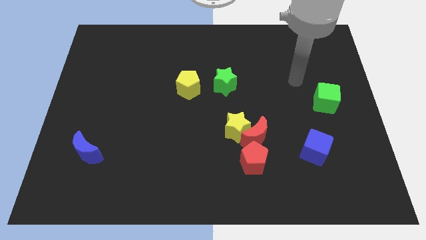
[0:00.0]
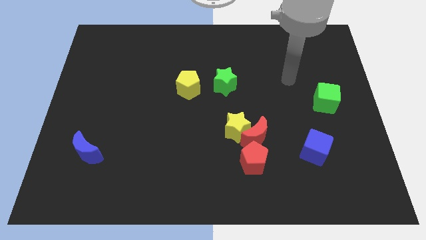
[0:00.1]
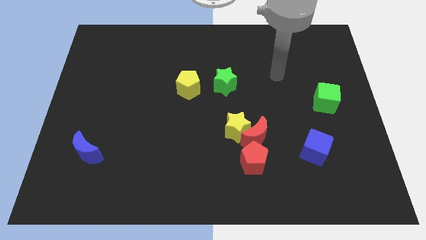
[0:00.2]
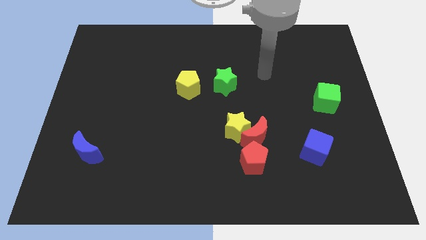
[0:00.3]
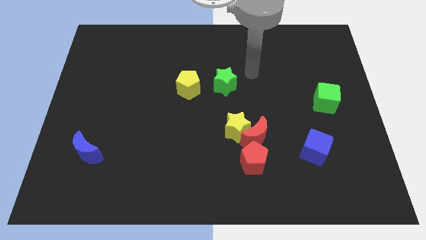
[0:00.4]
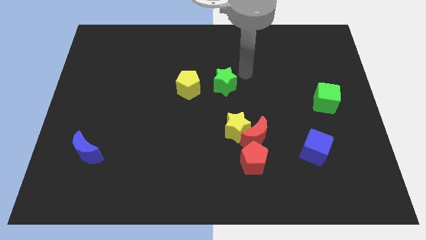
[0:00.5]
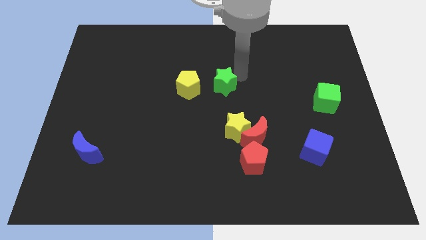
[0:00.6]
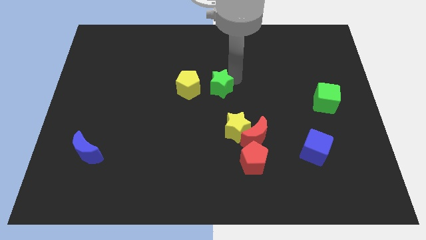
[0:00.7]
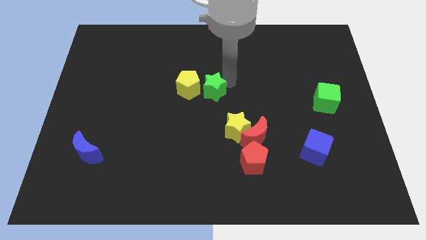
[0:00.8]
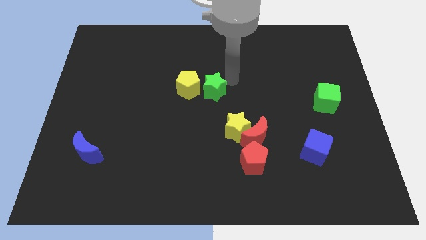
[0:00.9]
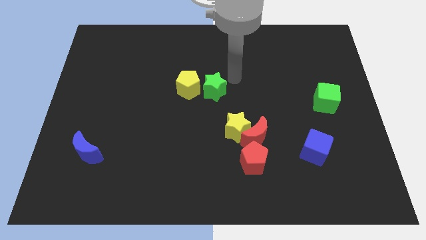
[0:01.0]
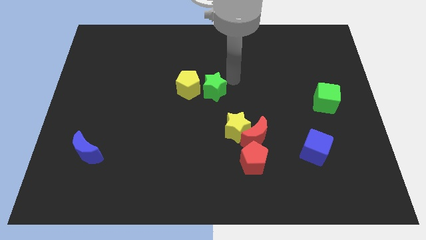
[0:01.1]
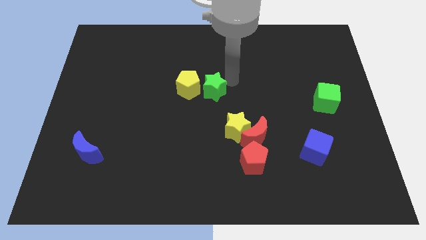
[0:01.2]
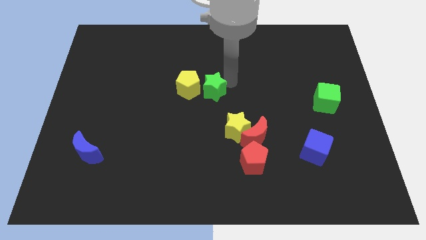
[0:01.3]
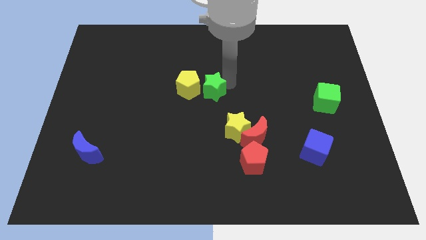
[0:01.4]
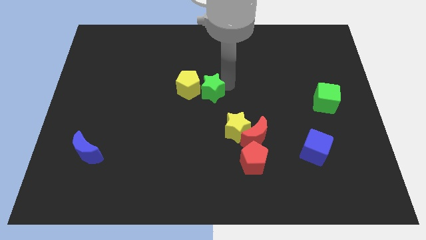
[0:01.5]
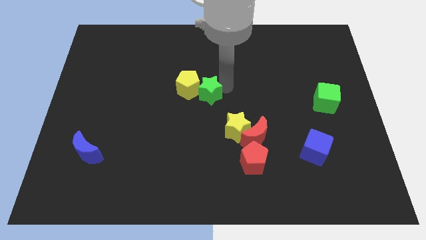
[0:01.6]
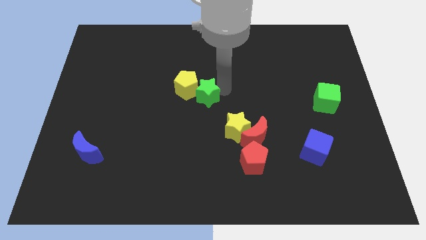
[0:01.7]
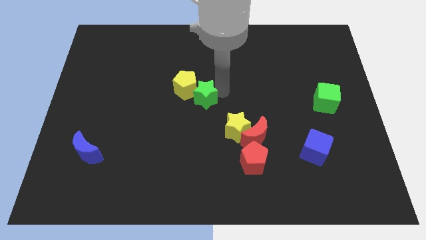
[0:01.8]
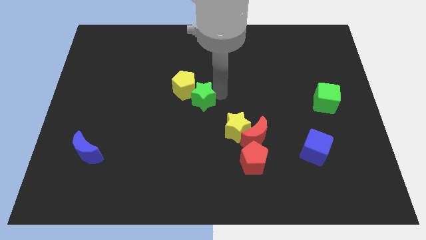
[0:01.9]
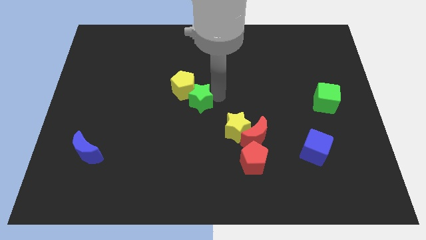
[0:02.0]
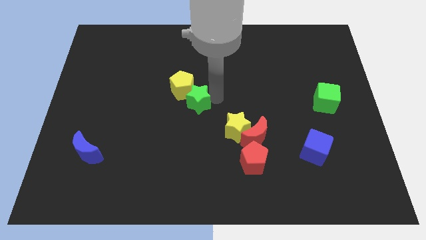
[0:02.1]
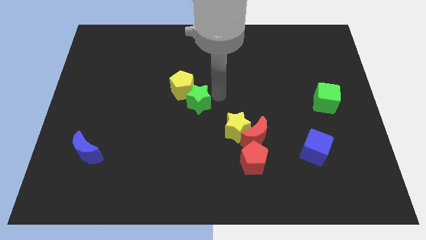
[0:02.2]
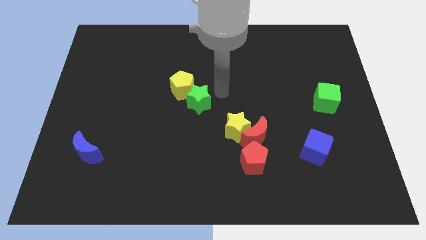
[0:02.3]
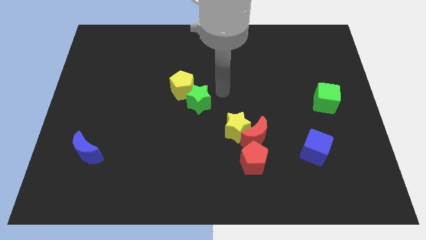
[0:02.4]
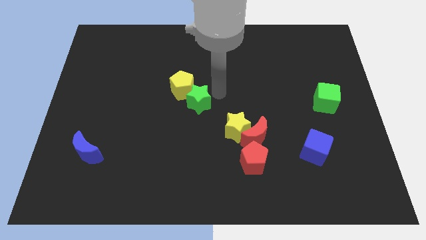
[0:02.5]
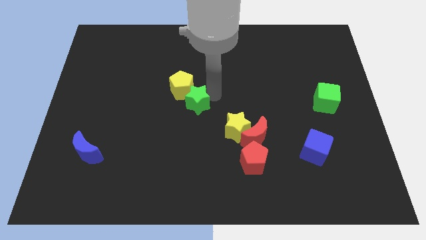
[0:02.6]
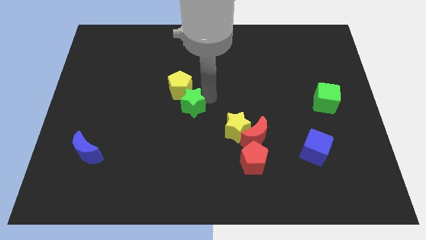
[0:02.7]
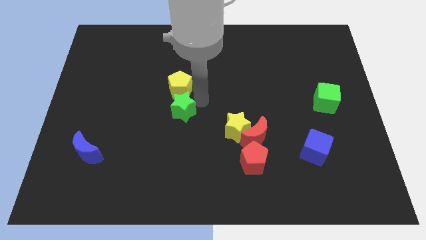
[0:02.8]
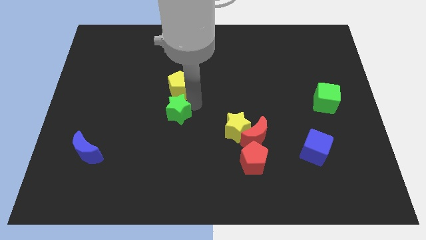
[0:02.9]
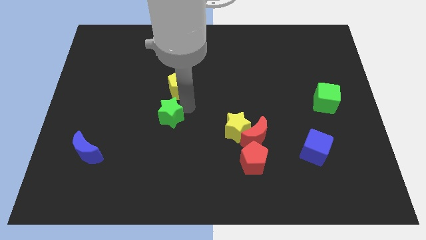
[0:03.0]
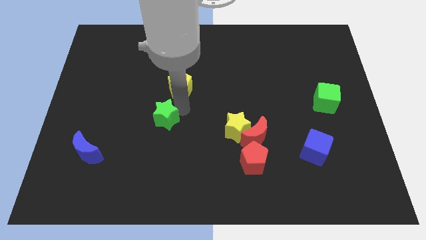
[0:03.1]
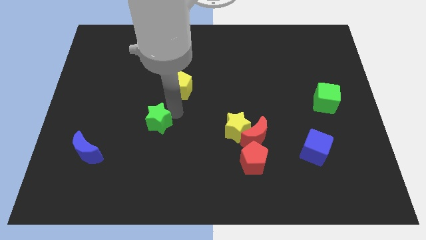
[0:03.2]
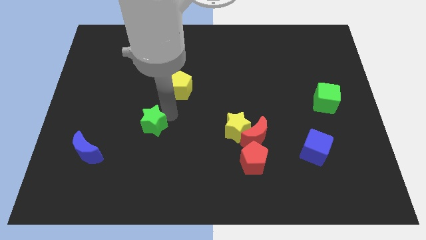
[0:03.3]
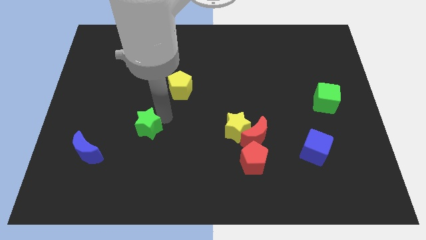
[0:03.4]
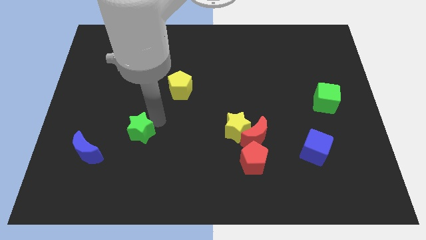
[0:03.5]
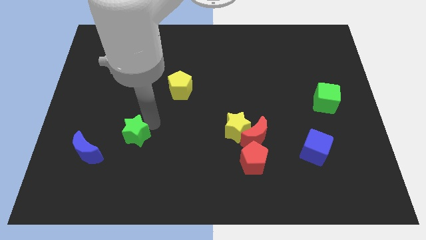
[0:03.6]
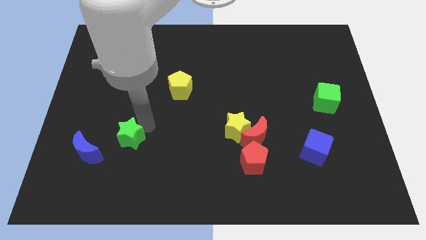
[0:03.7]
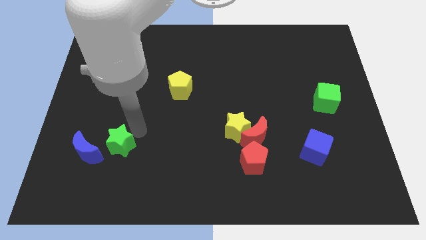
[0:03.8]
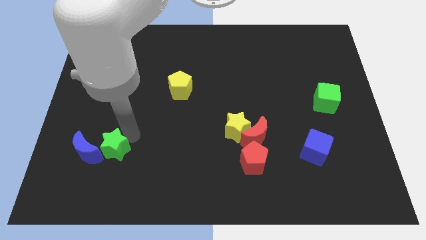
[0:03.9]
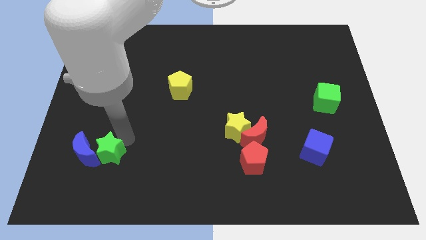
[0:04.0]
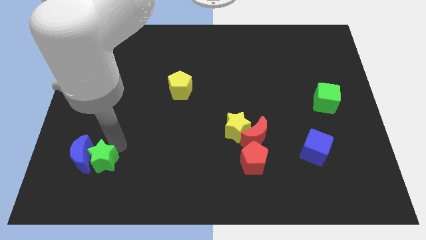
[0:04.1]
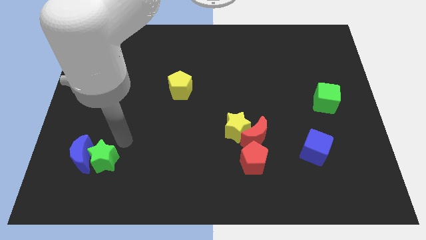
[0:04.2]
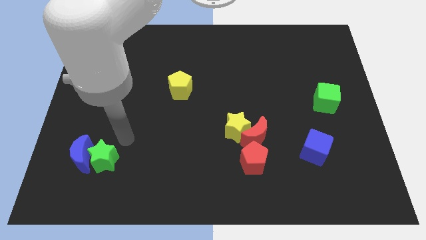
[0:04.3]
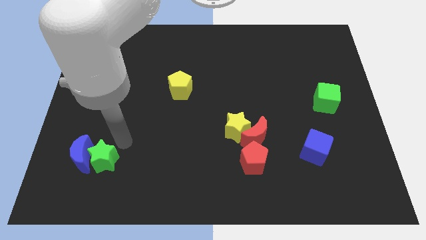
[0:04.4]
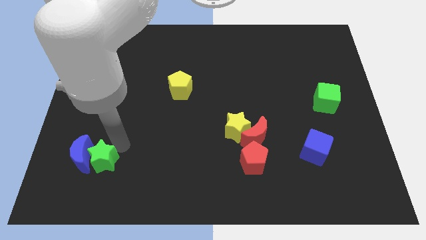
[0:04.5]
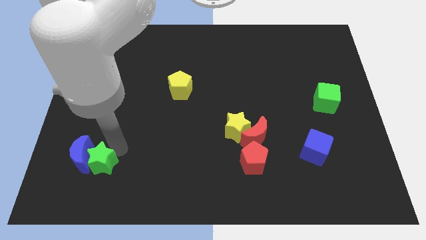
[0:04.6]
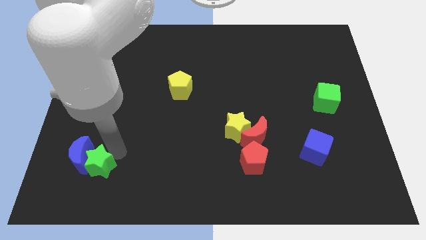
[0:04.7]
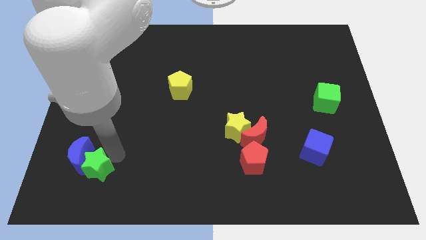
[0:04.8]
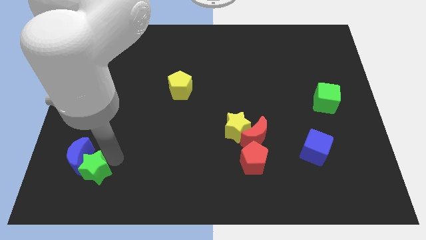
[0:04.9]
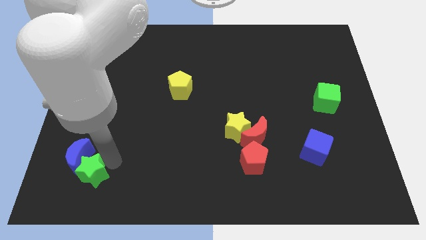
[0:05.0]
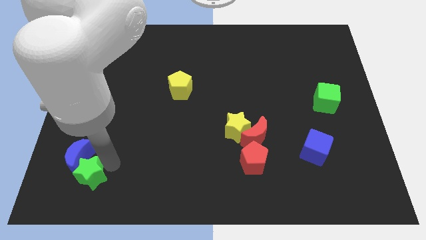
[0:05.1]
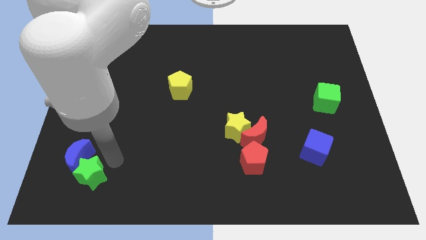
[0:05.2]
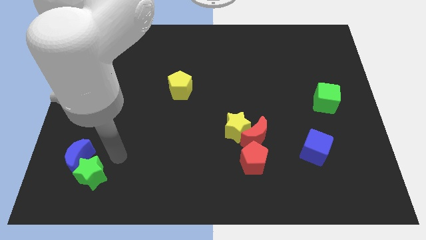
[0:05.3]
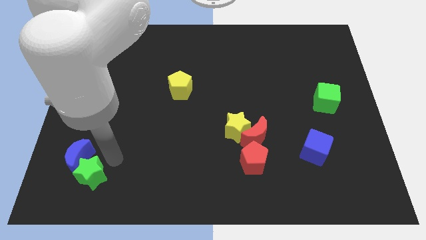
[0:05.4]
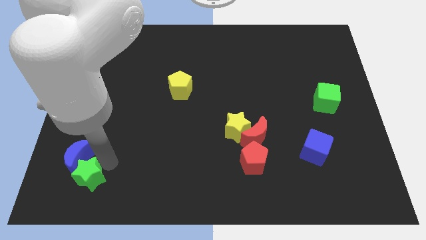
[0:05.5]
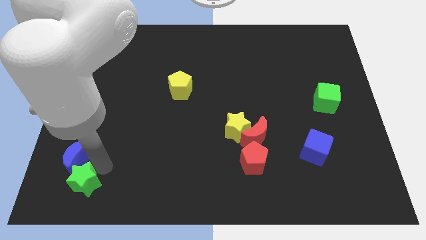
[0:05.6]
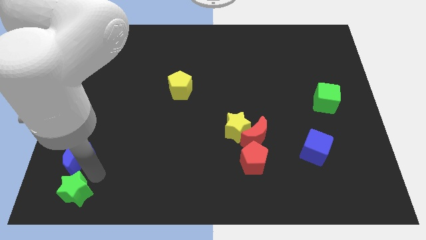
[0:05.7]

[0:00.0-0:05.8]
put the green star to the bottom left of the board

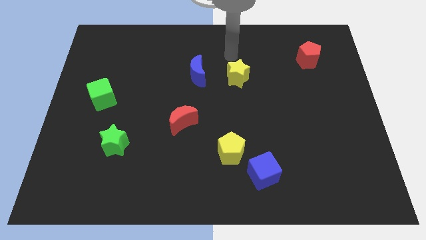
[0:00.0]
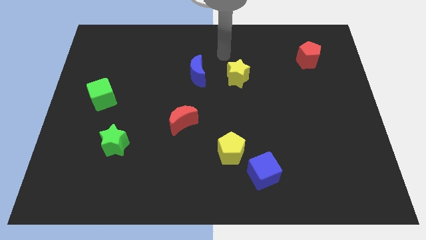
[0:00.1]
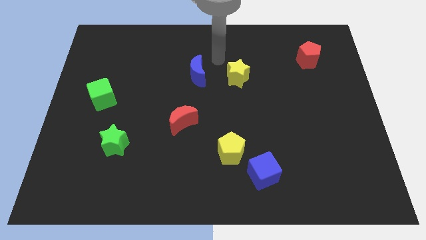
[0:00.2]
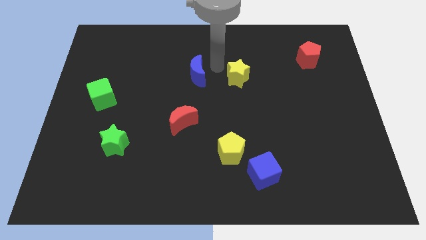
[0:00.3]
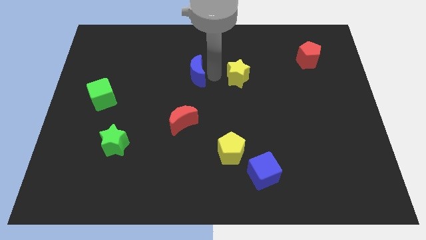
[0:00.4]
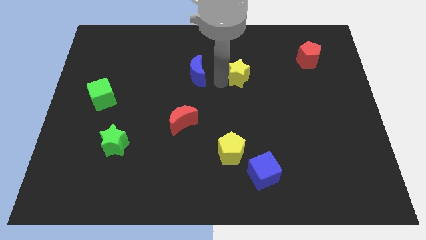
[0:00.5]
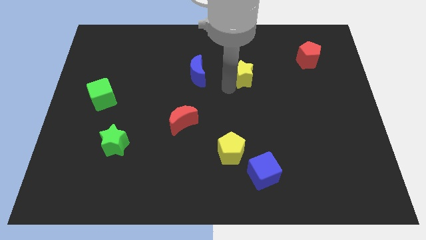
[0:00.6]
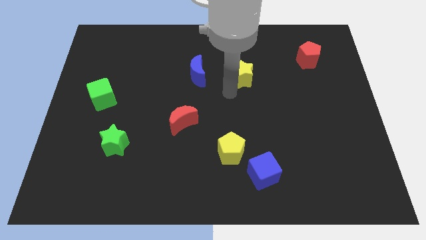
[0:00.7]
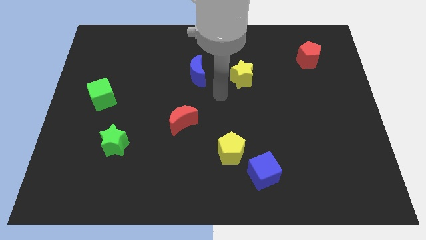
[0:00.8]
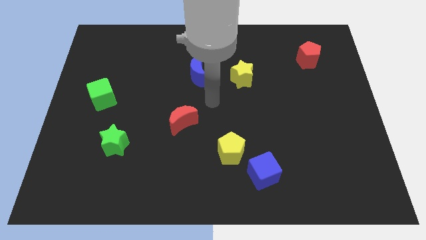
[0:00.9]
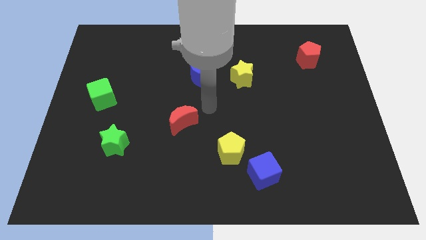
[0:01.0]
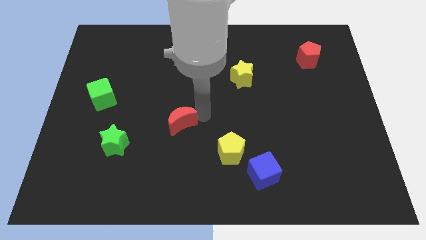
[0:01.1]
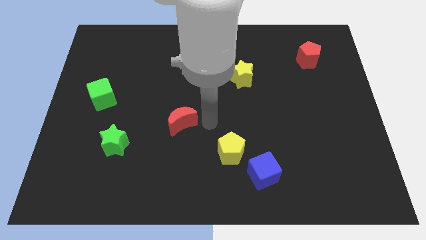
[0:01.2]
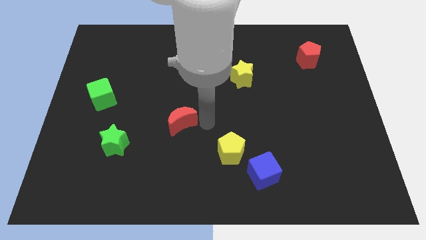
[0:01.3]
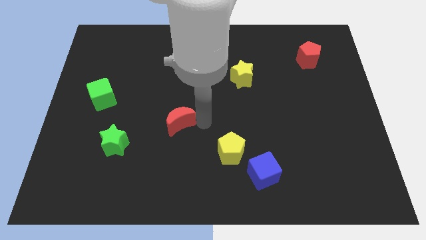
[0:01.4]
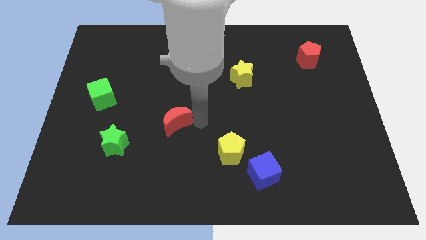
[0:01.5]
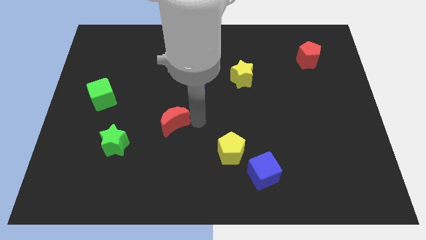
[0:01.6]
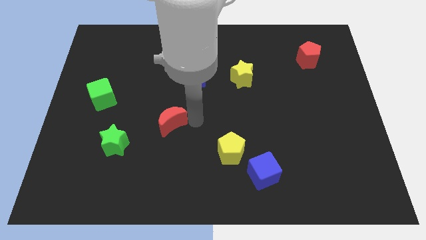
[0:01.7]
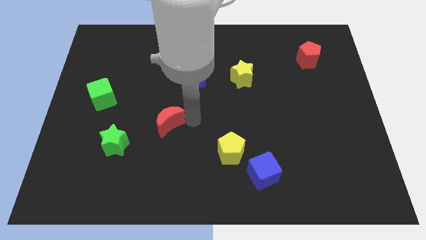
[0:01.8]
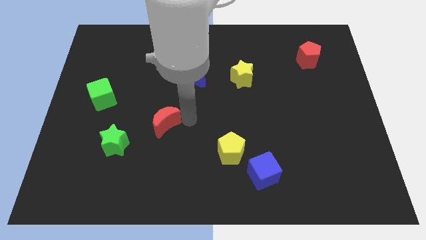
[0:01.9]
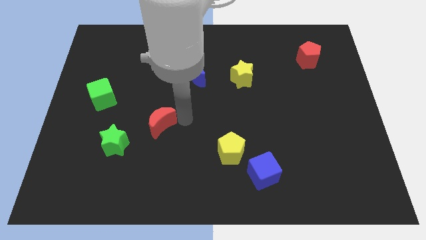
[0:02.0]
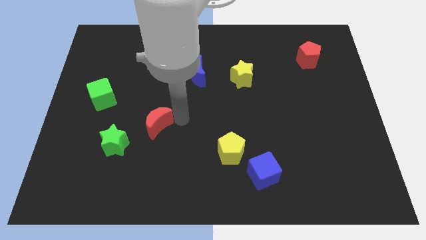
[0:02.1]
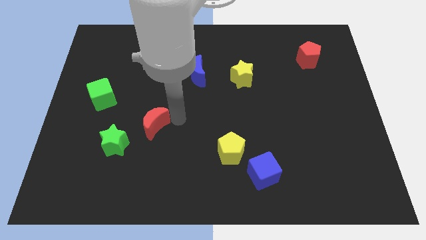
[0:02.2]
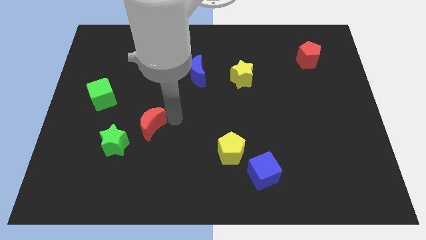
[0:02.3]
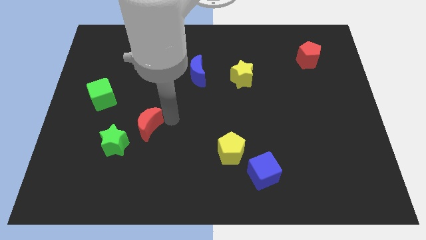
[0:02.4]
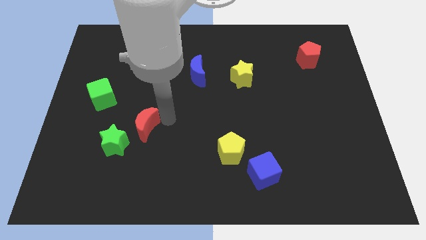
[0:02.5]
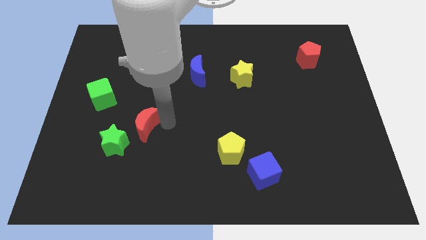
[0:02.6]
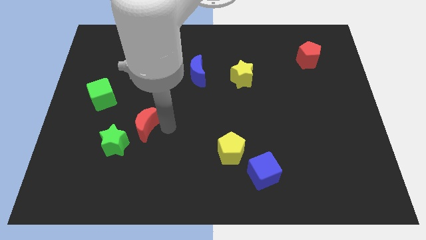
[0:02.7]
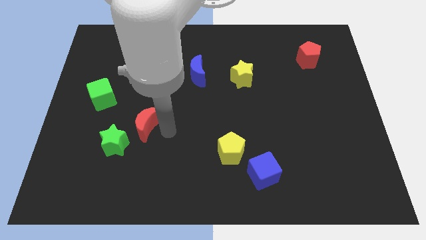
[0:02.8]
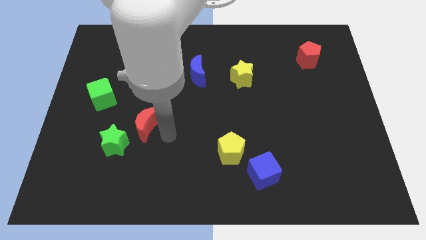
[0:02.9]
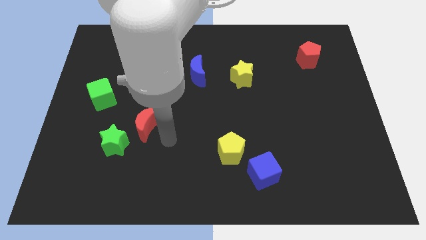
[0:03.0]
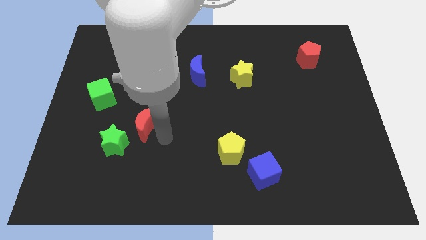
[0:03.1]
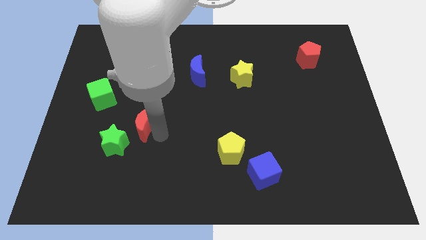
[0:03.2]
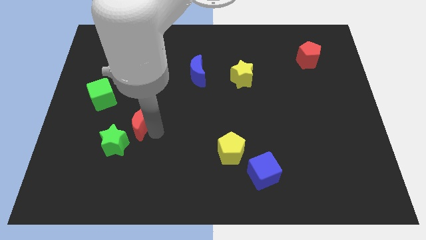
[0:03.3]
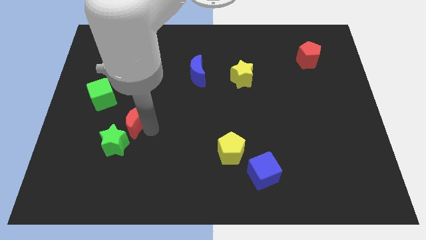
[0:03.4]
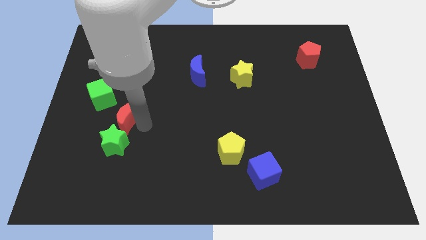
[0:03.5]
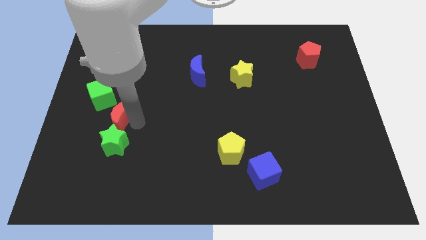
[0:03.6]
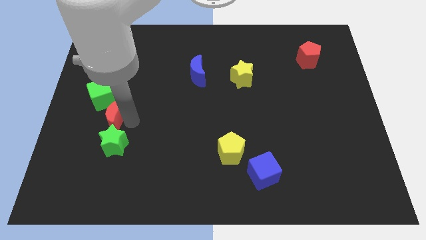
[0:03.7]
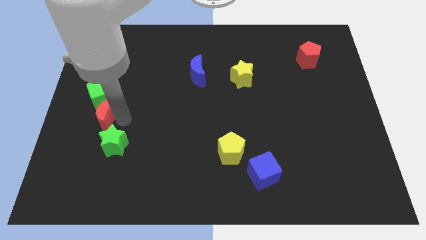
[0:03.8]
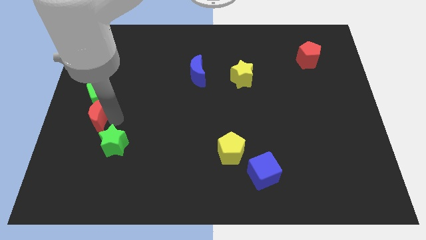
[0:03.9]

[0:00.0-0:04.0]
move the red moon to the center left
